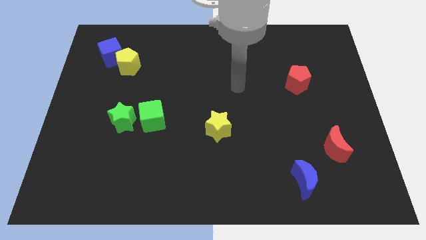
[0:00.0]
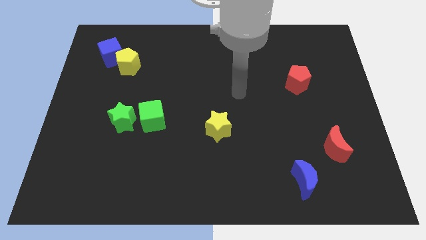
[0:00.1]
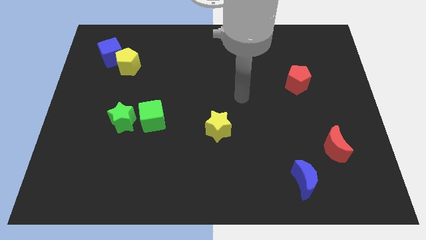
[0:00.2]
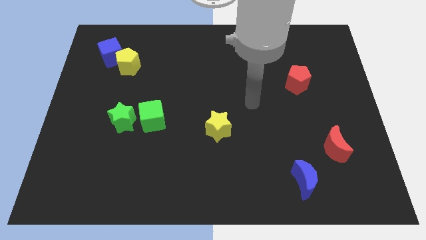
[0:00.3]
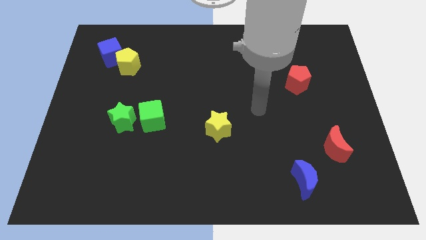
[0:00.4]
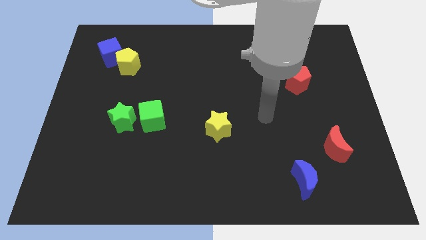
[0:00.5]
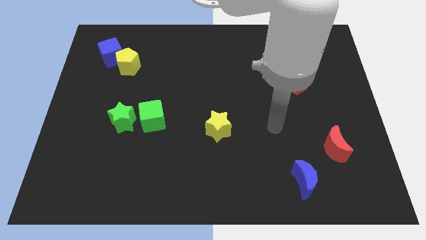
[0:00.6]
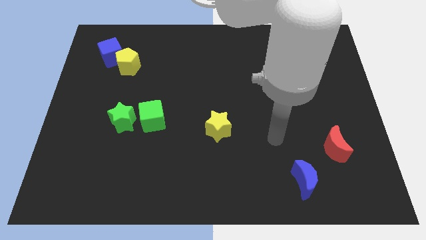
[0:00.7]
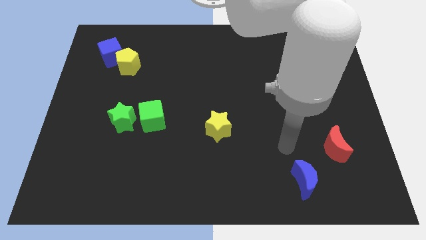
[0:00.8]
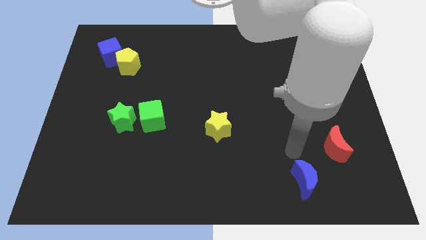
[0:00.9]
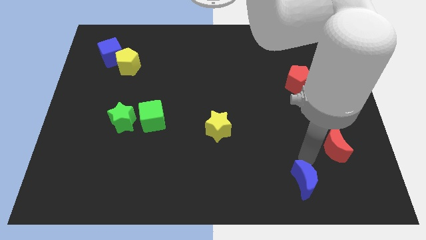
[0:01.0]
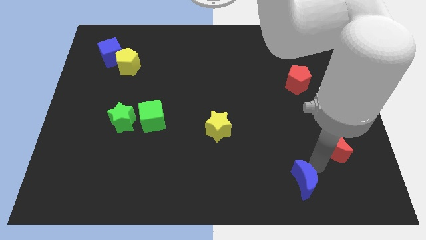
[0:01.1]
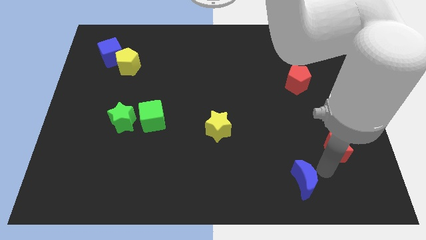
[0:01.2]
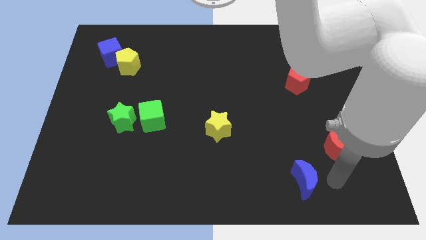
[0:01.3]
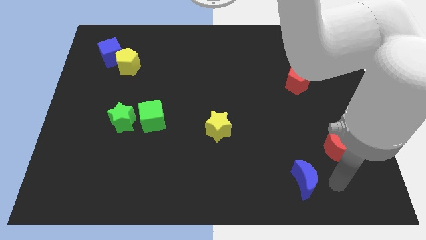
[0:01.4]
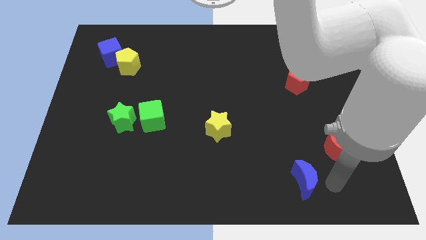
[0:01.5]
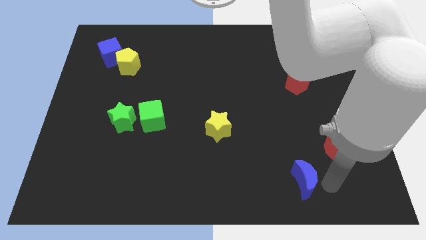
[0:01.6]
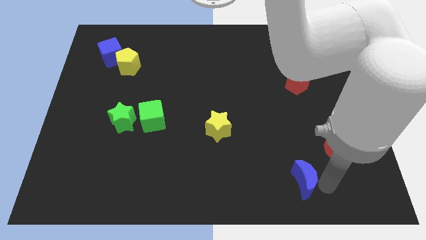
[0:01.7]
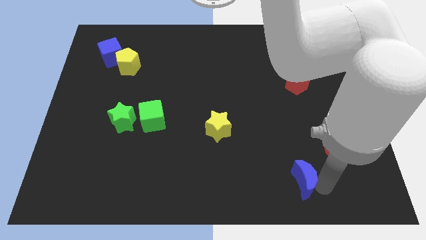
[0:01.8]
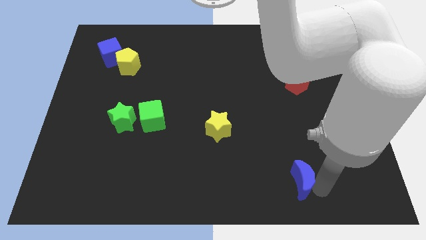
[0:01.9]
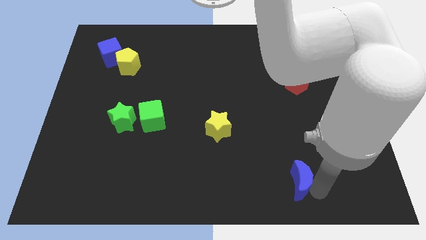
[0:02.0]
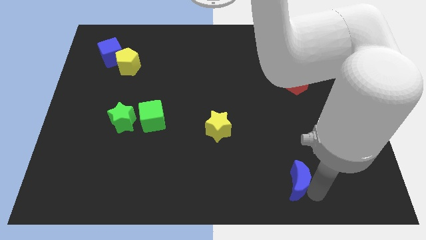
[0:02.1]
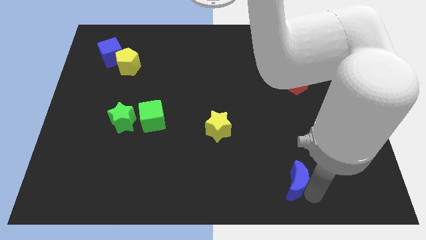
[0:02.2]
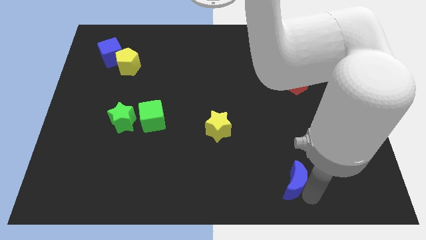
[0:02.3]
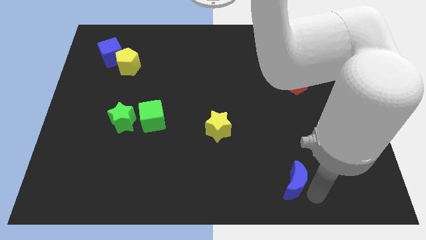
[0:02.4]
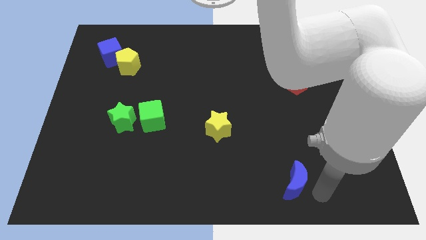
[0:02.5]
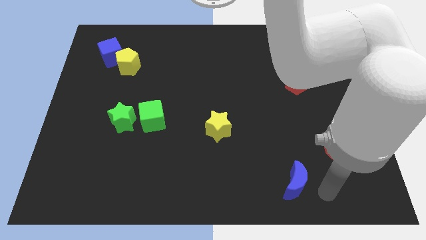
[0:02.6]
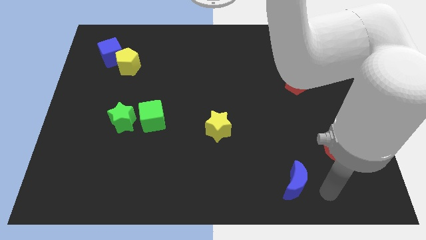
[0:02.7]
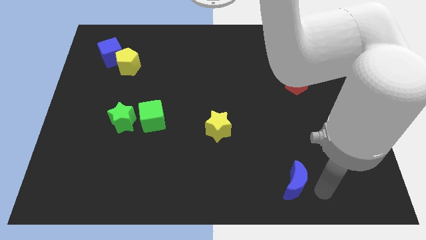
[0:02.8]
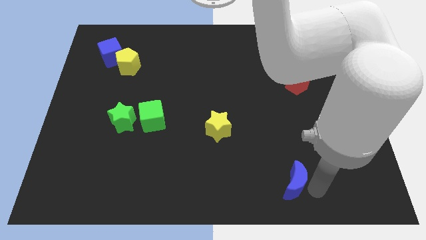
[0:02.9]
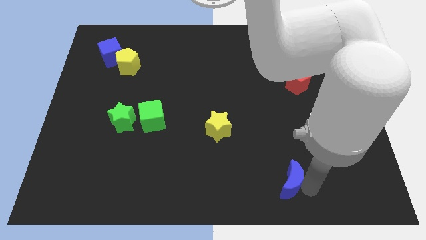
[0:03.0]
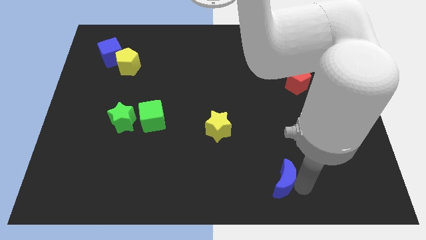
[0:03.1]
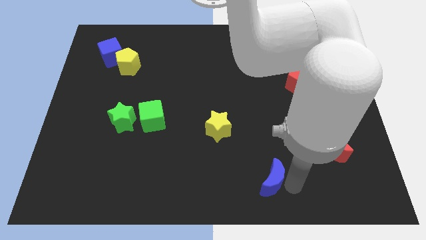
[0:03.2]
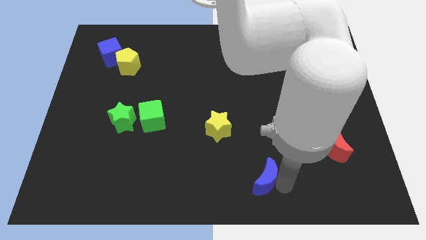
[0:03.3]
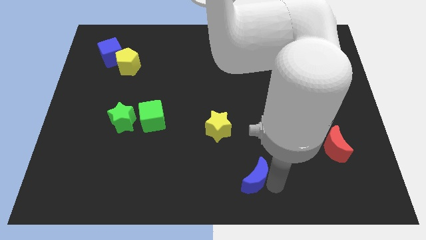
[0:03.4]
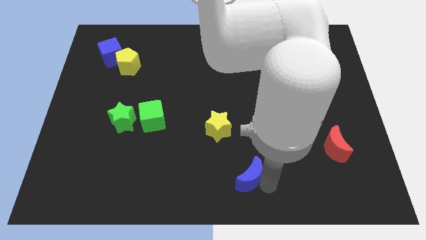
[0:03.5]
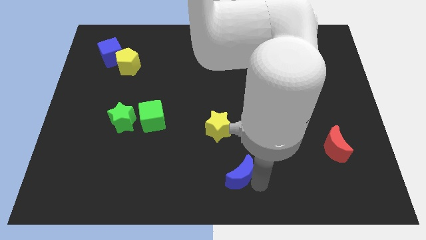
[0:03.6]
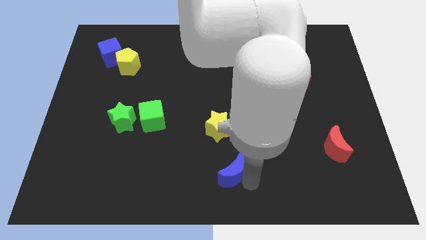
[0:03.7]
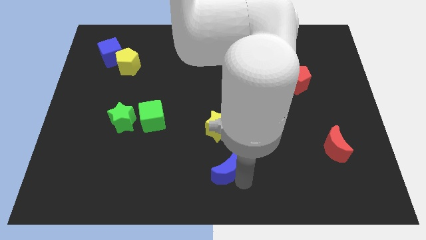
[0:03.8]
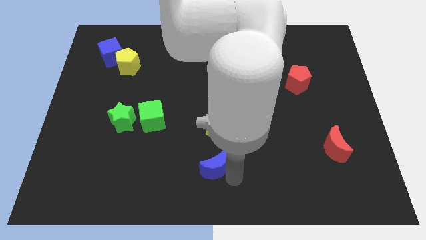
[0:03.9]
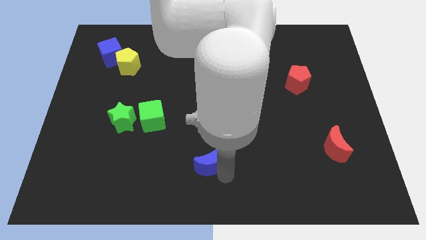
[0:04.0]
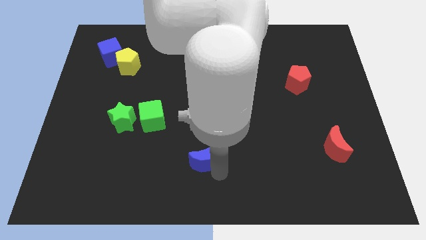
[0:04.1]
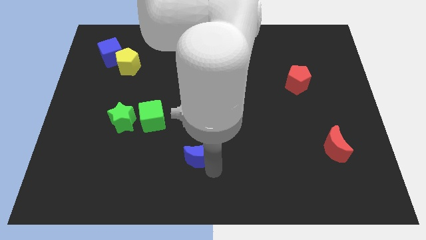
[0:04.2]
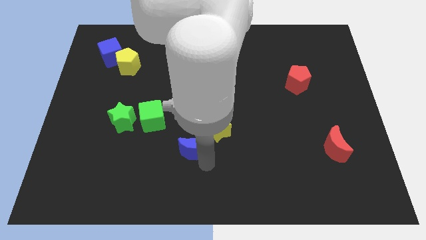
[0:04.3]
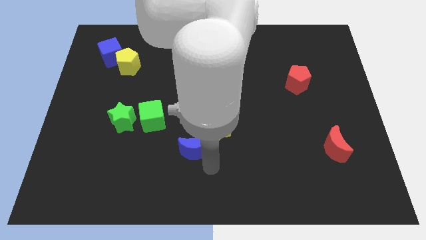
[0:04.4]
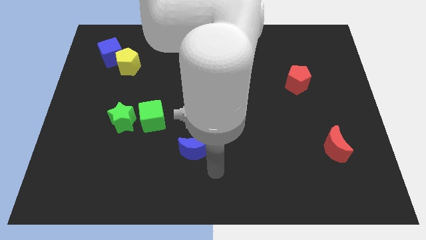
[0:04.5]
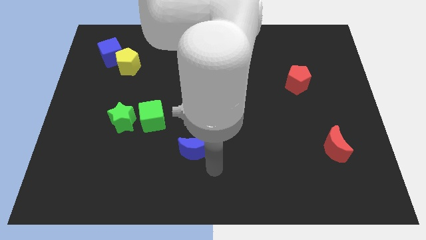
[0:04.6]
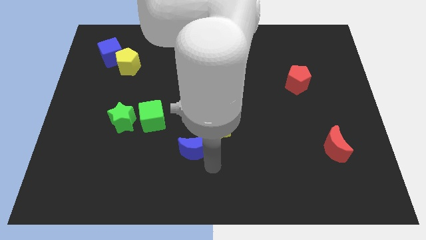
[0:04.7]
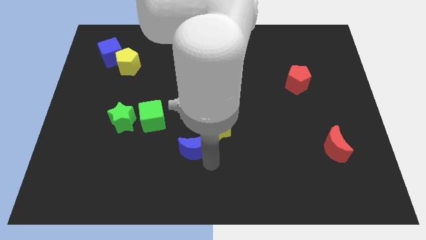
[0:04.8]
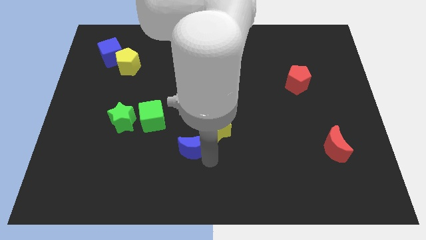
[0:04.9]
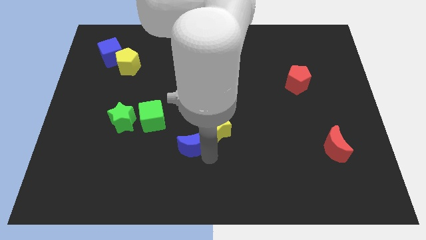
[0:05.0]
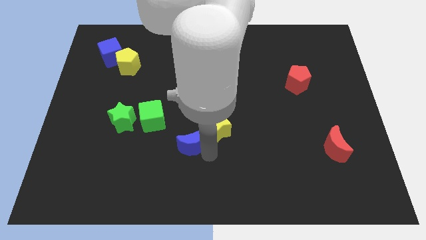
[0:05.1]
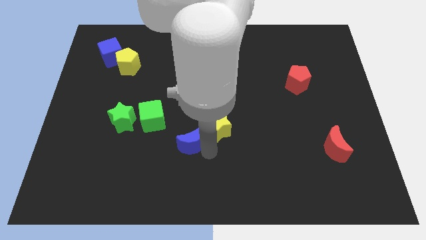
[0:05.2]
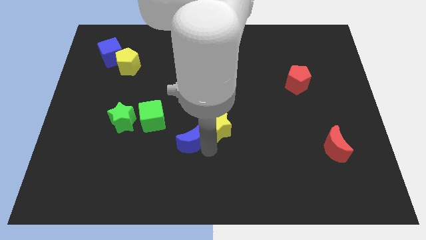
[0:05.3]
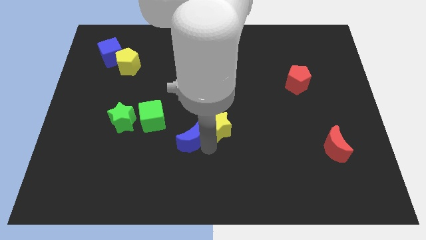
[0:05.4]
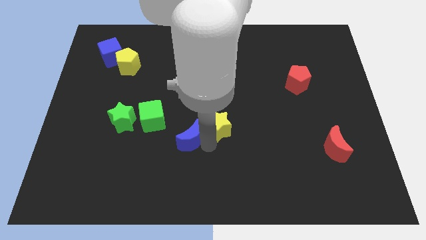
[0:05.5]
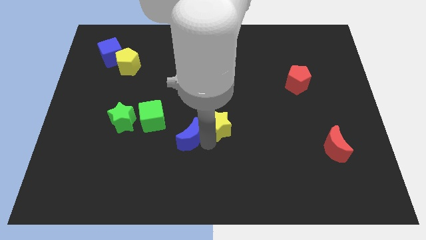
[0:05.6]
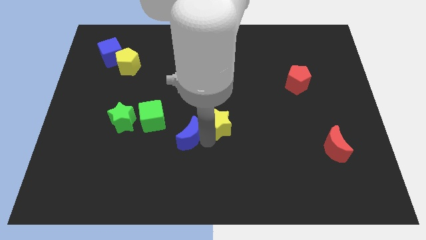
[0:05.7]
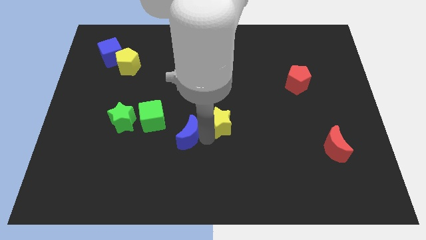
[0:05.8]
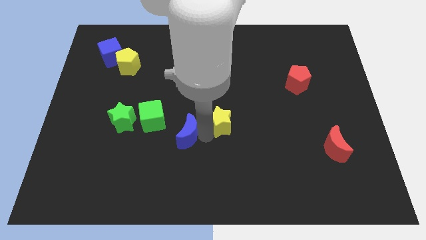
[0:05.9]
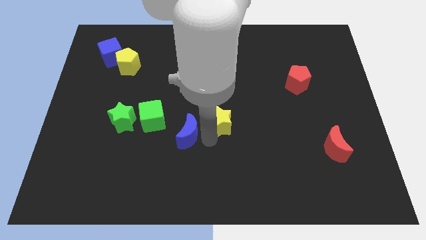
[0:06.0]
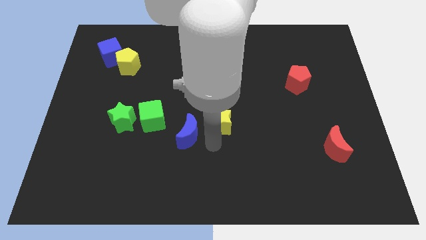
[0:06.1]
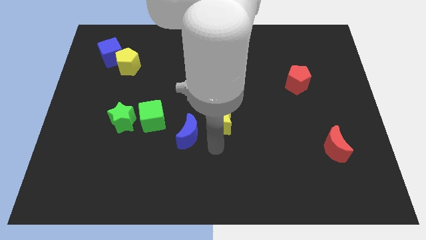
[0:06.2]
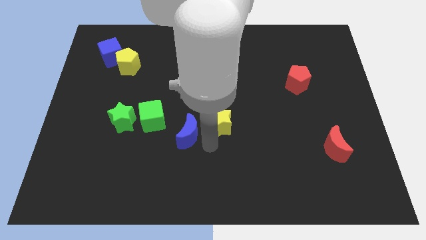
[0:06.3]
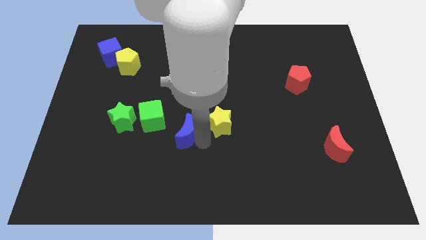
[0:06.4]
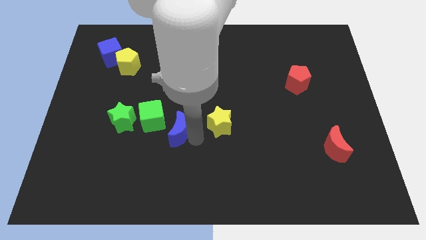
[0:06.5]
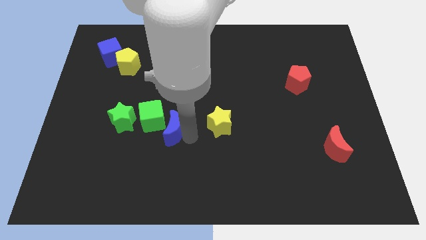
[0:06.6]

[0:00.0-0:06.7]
push the blue moon towards the green cube
